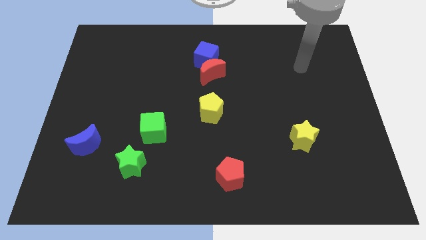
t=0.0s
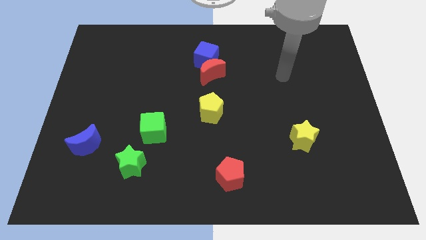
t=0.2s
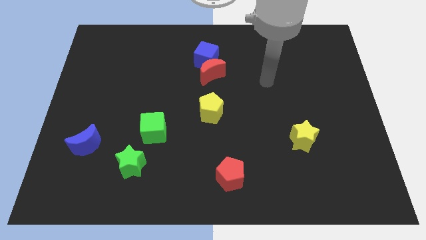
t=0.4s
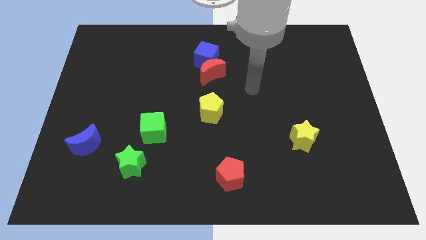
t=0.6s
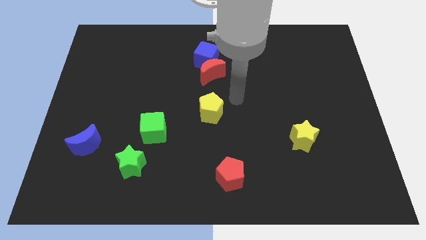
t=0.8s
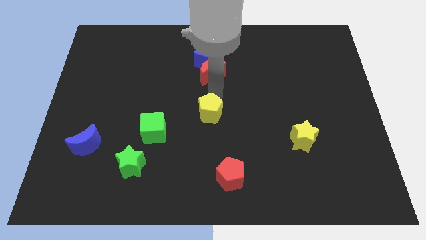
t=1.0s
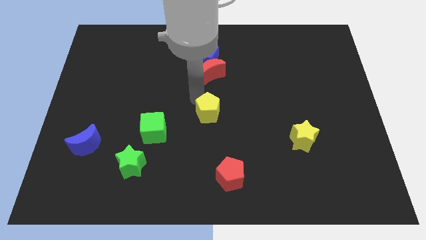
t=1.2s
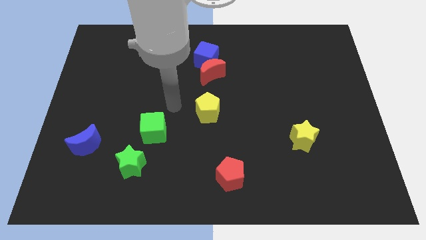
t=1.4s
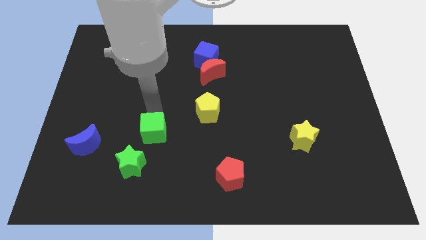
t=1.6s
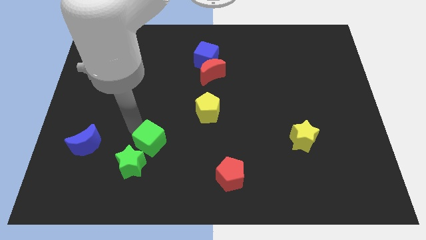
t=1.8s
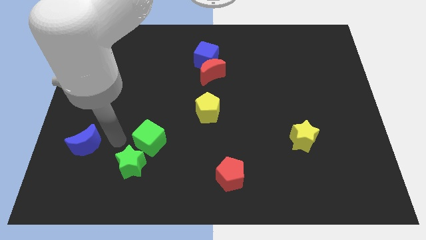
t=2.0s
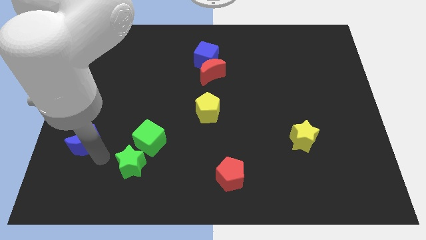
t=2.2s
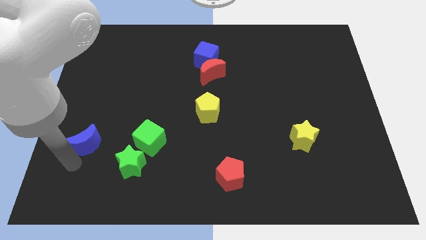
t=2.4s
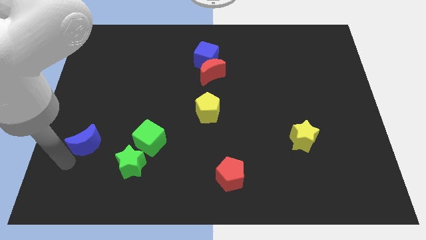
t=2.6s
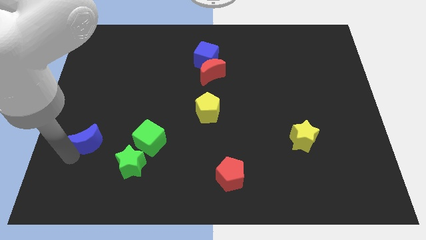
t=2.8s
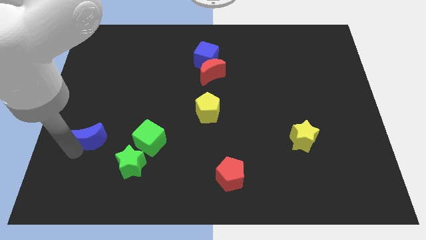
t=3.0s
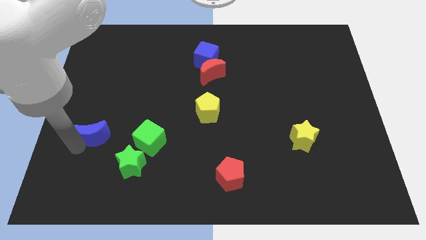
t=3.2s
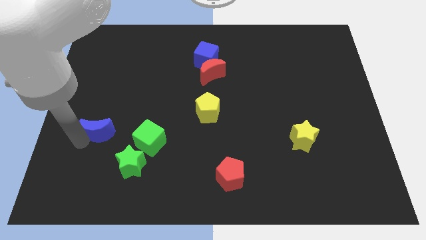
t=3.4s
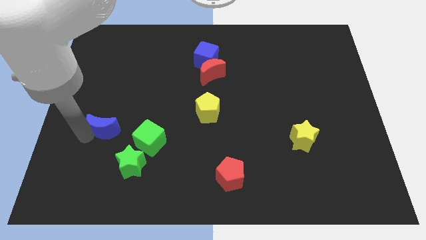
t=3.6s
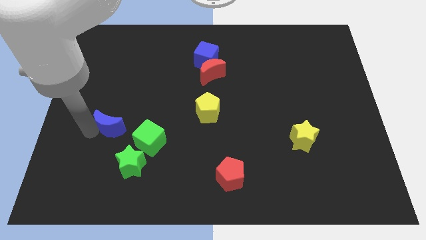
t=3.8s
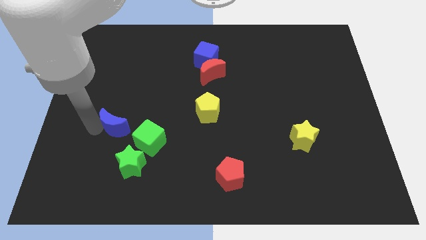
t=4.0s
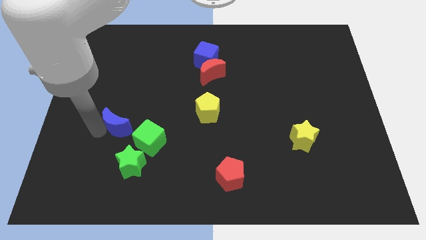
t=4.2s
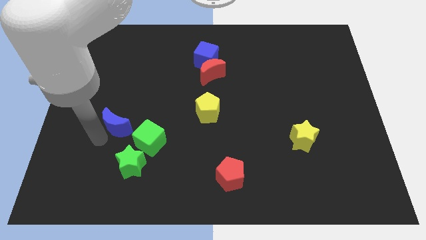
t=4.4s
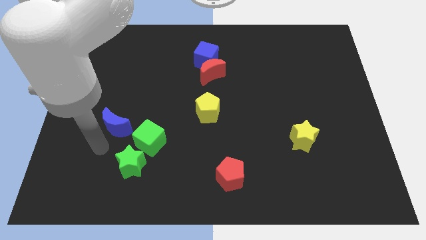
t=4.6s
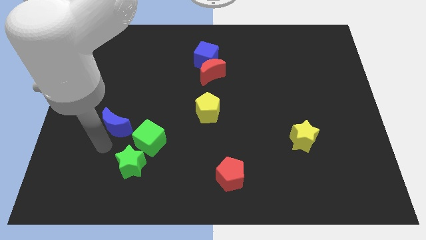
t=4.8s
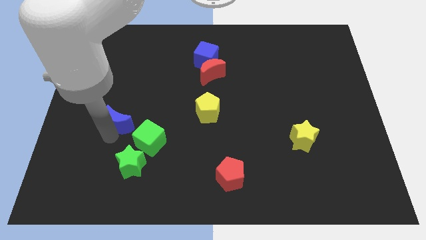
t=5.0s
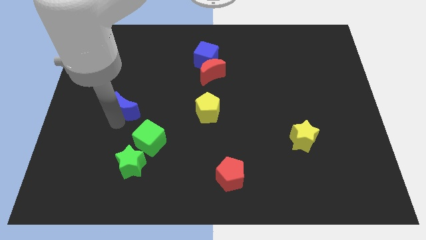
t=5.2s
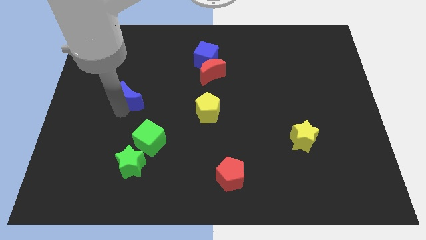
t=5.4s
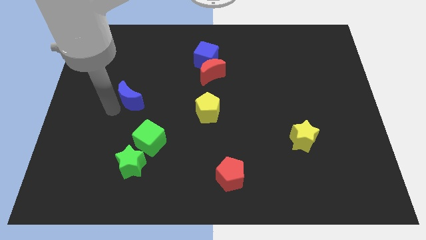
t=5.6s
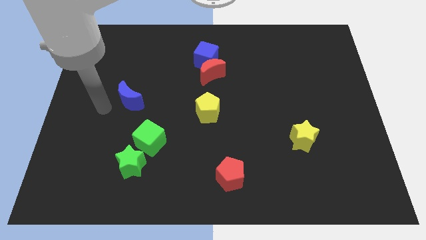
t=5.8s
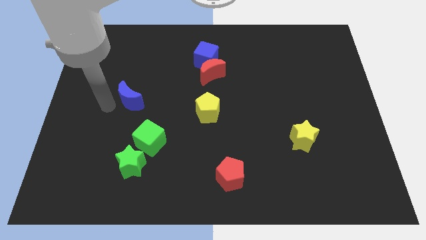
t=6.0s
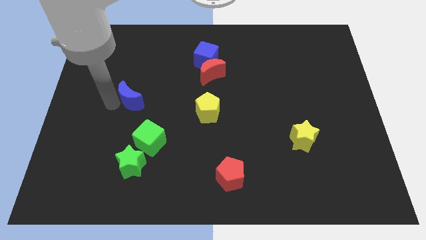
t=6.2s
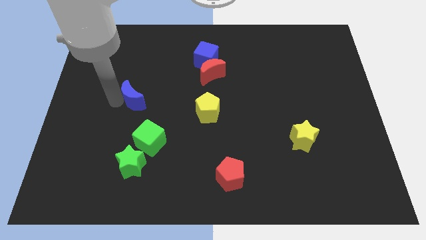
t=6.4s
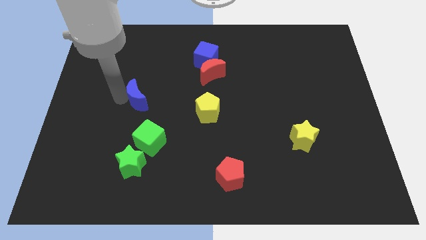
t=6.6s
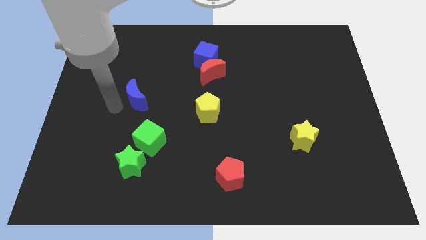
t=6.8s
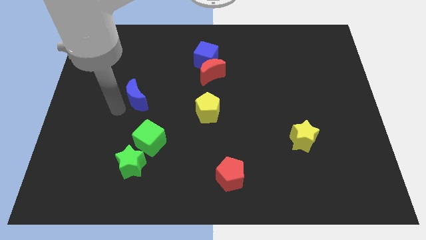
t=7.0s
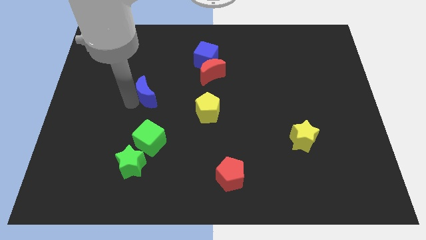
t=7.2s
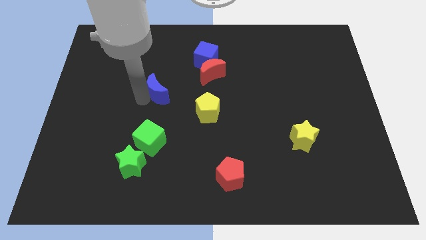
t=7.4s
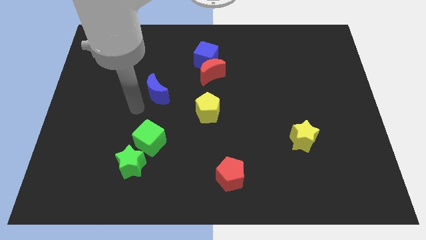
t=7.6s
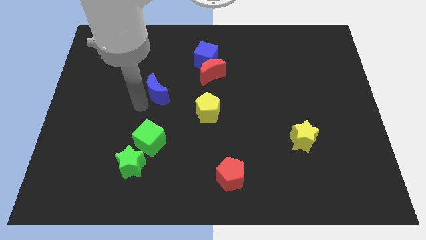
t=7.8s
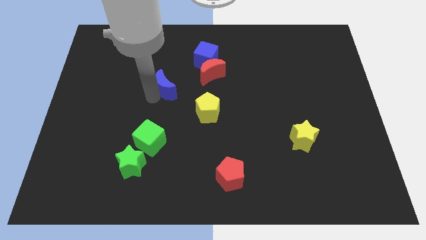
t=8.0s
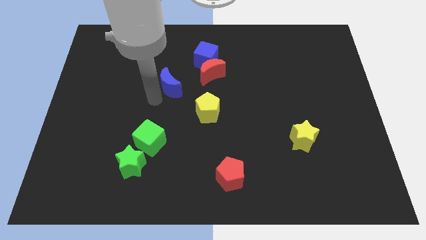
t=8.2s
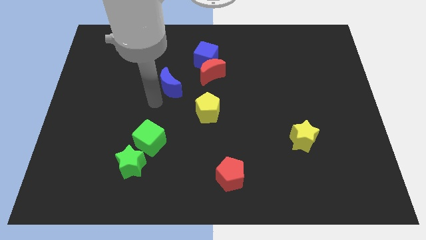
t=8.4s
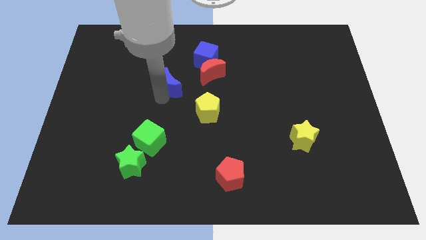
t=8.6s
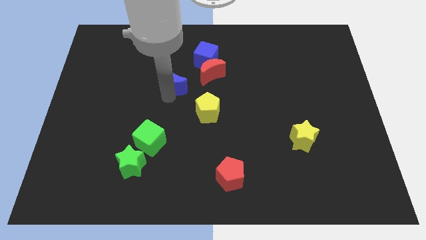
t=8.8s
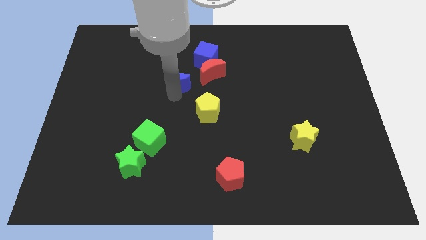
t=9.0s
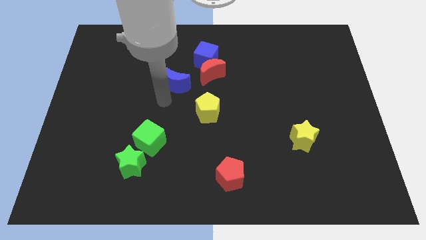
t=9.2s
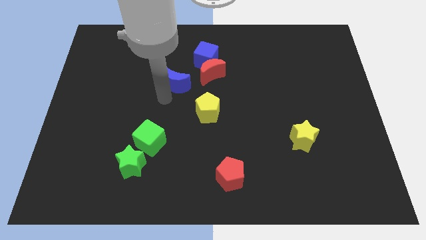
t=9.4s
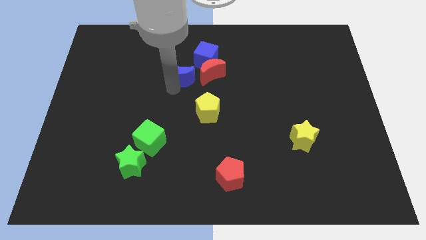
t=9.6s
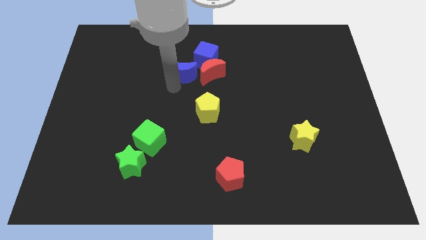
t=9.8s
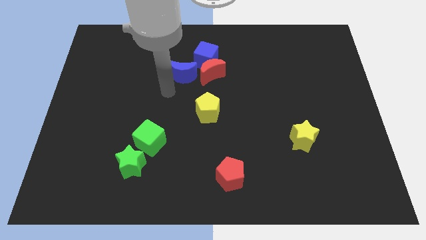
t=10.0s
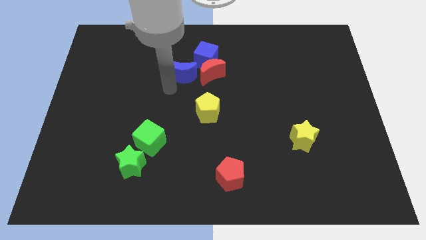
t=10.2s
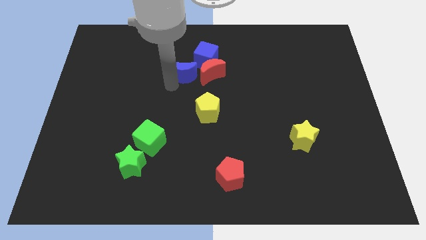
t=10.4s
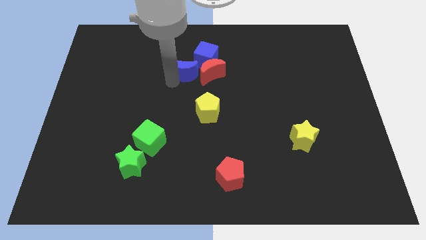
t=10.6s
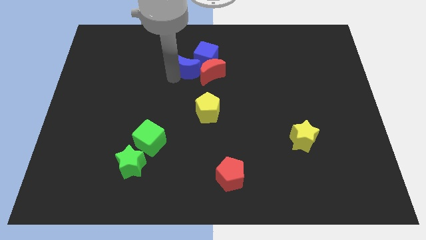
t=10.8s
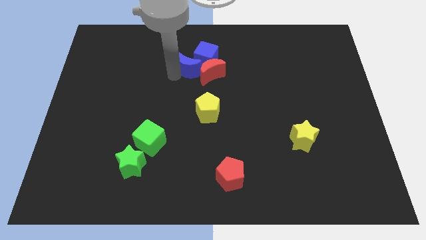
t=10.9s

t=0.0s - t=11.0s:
move the blue moon to the blue cube

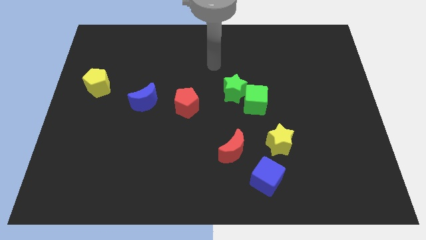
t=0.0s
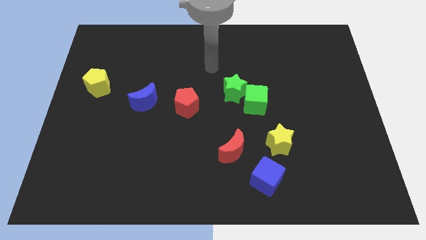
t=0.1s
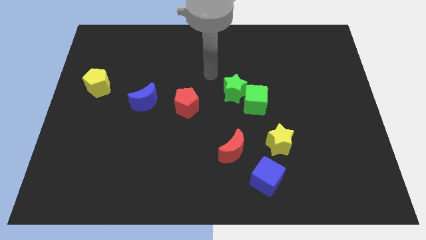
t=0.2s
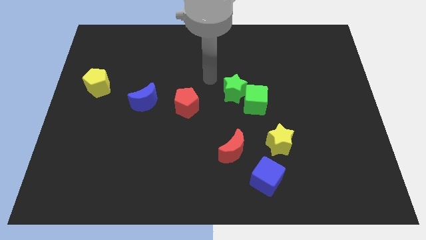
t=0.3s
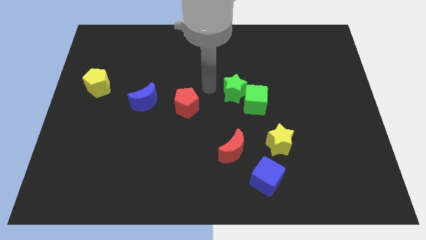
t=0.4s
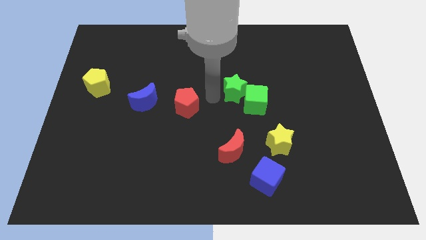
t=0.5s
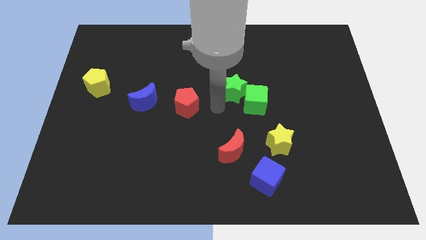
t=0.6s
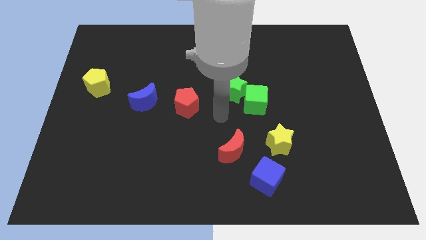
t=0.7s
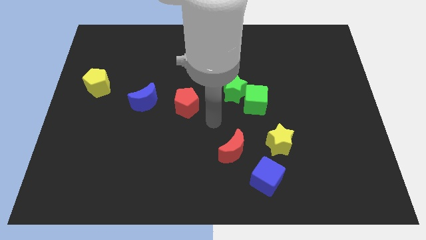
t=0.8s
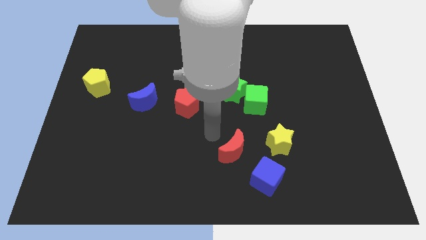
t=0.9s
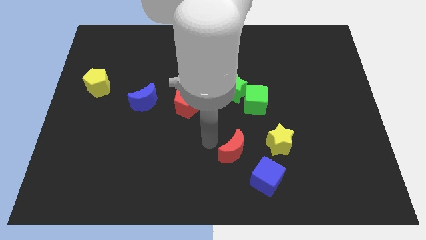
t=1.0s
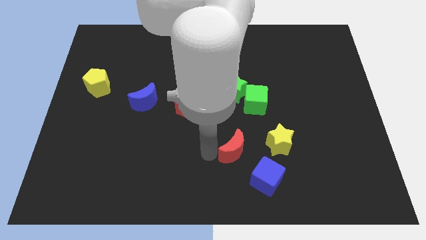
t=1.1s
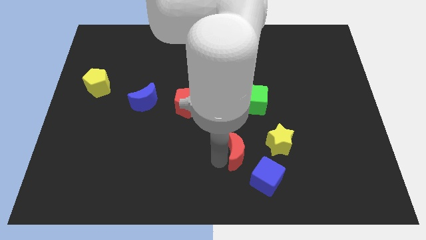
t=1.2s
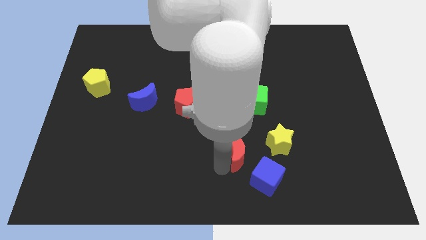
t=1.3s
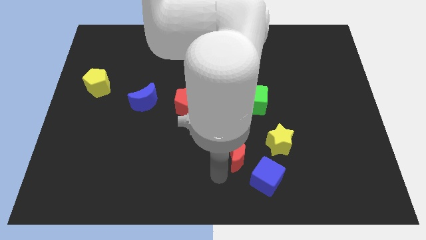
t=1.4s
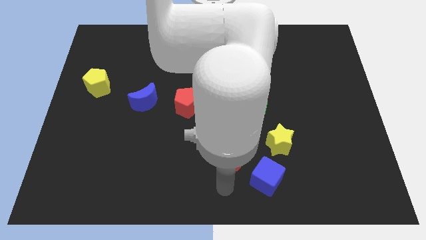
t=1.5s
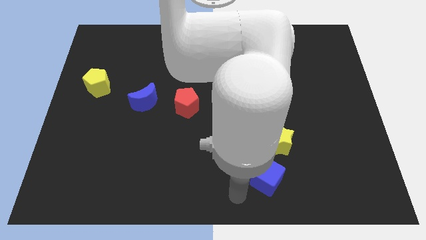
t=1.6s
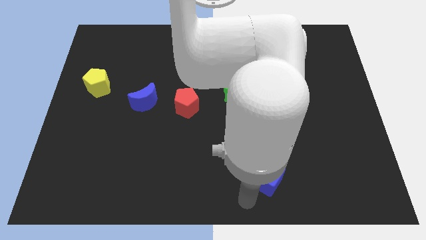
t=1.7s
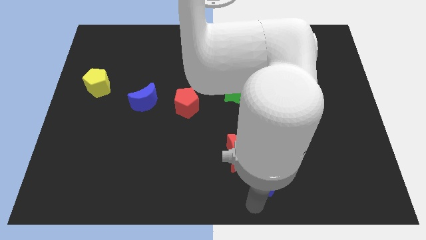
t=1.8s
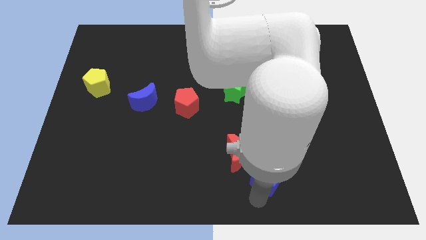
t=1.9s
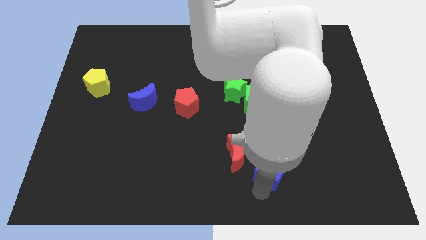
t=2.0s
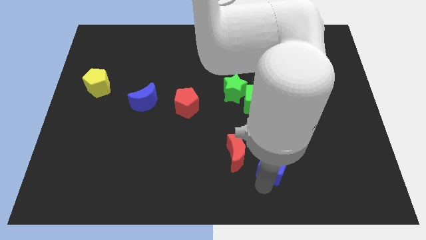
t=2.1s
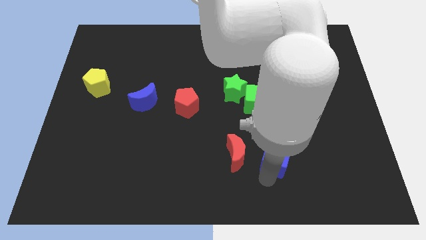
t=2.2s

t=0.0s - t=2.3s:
push the blue cube next to the yellow star
